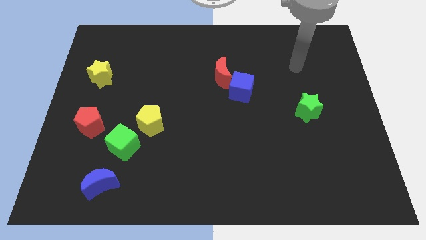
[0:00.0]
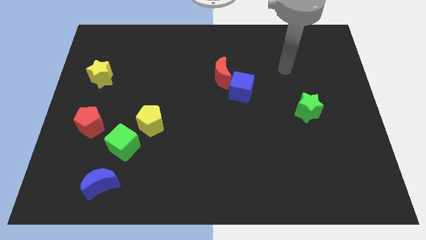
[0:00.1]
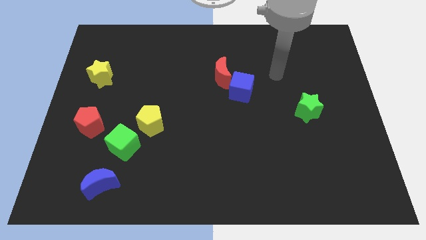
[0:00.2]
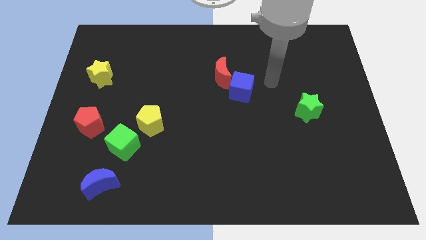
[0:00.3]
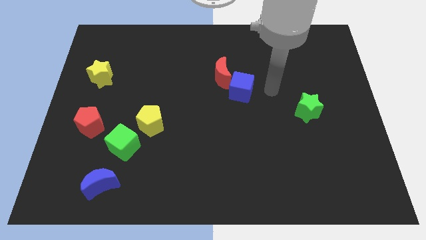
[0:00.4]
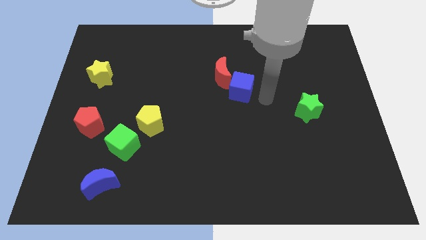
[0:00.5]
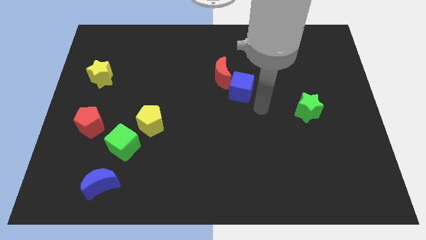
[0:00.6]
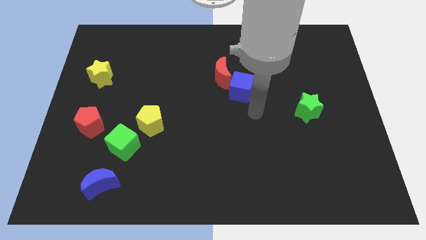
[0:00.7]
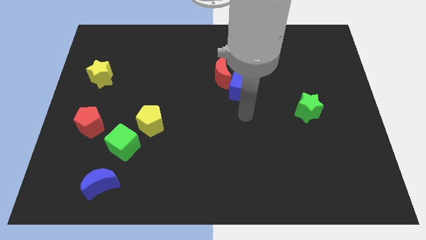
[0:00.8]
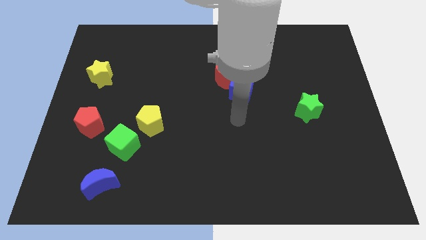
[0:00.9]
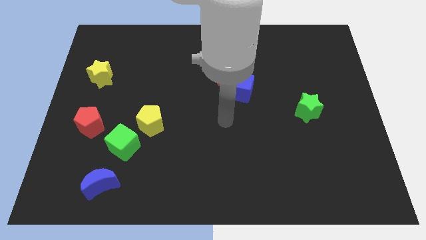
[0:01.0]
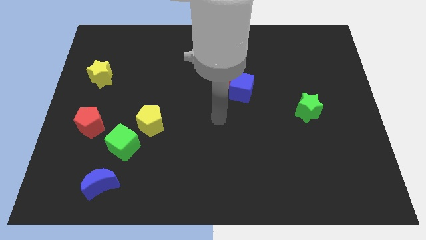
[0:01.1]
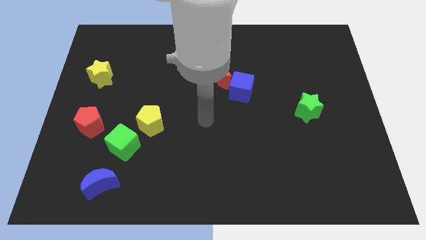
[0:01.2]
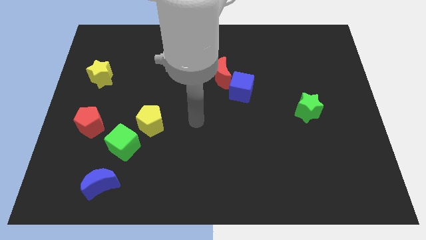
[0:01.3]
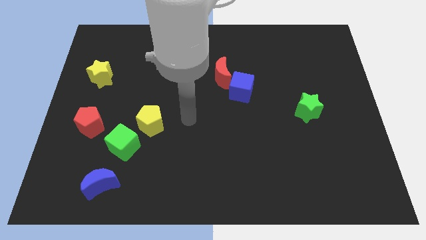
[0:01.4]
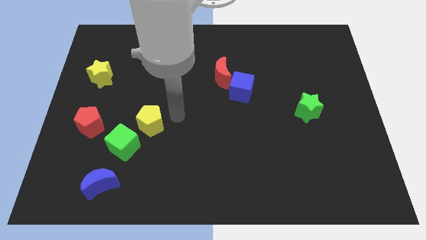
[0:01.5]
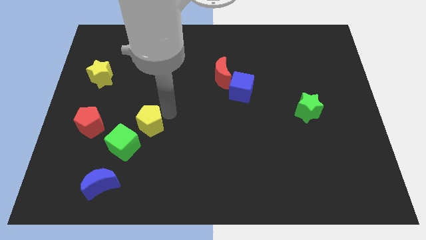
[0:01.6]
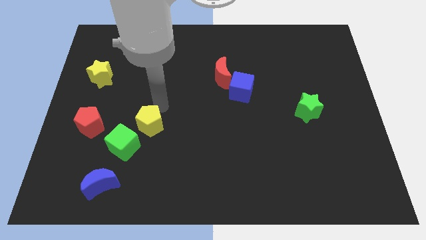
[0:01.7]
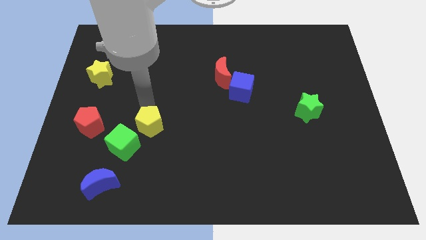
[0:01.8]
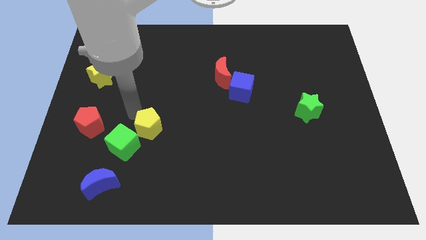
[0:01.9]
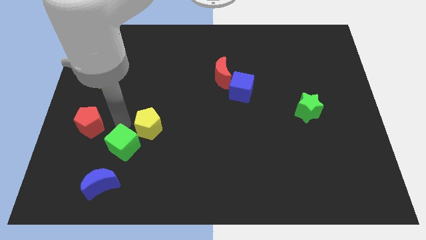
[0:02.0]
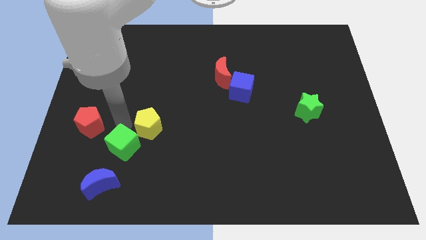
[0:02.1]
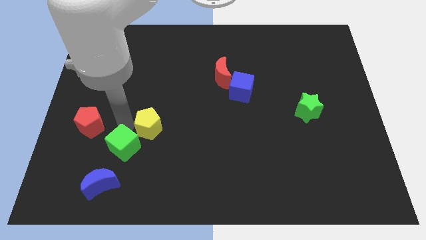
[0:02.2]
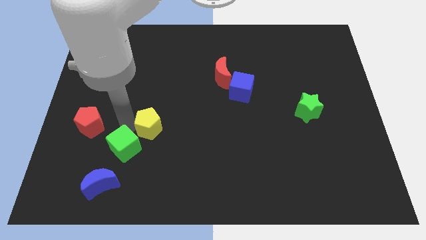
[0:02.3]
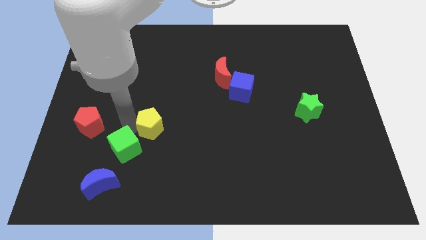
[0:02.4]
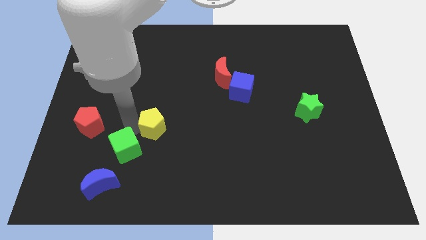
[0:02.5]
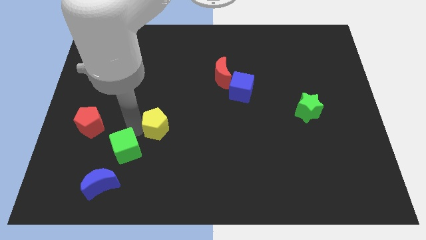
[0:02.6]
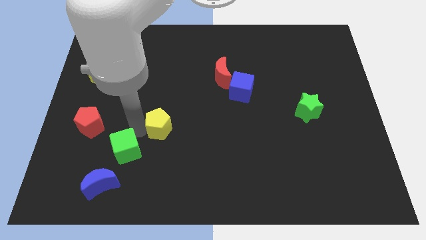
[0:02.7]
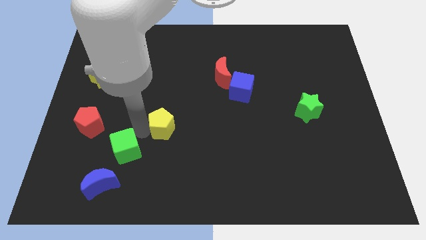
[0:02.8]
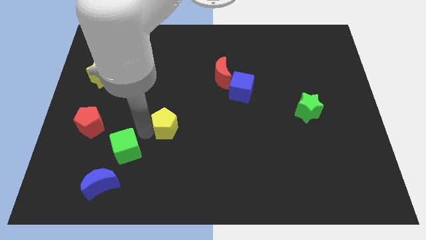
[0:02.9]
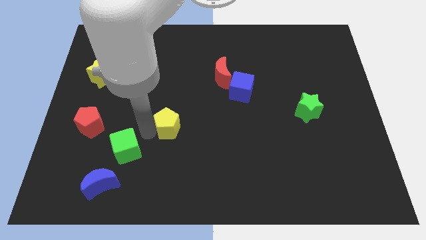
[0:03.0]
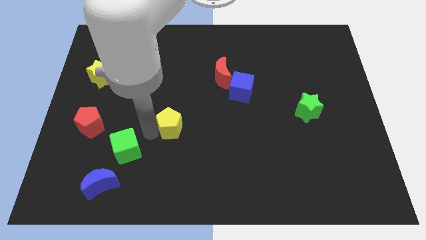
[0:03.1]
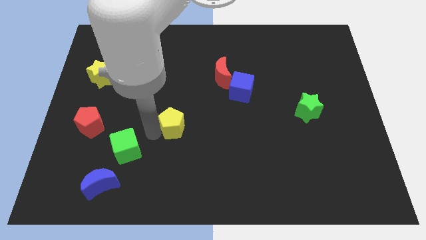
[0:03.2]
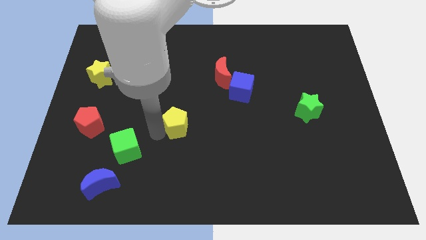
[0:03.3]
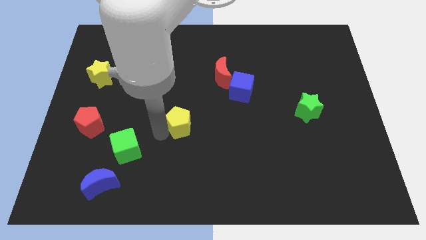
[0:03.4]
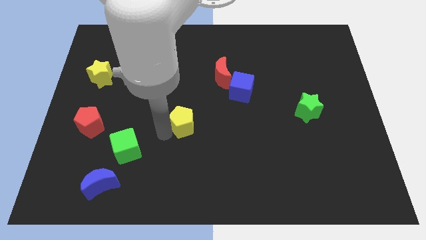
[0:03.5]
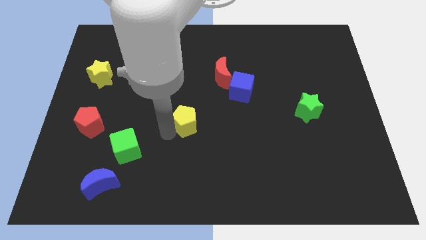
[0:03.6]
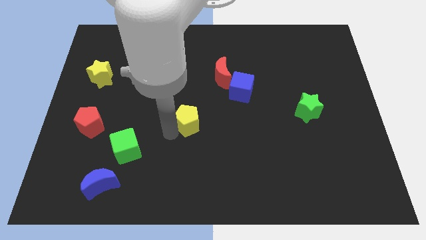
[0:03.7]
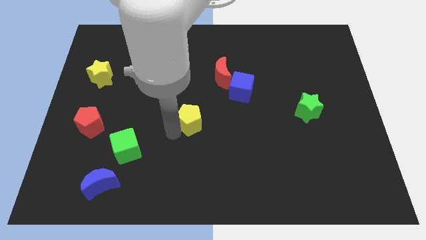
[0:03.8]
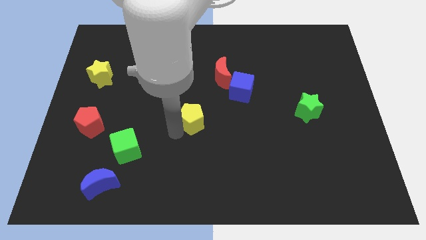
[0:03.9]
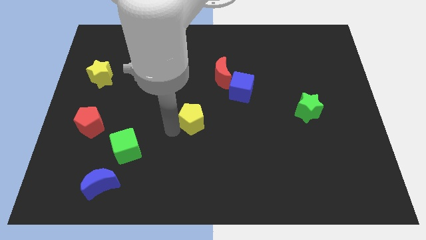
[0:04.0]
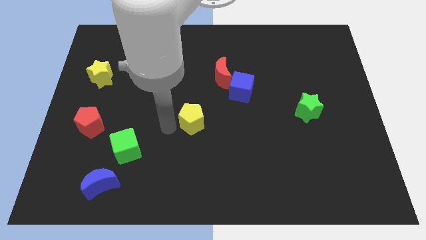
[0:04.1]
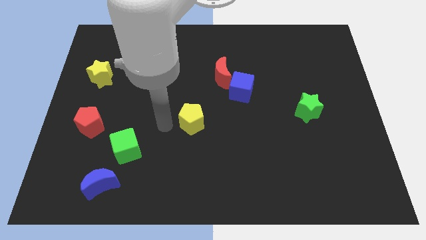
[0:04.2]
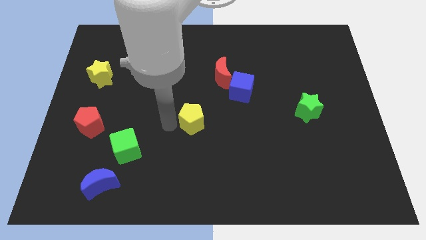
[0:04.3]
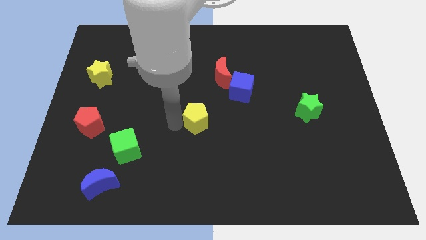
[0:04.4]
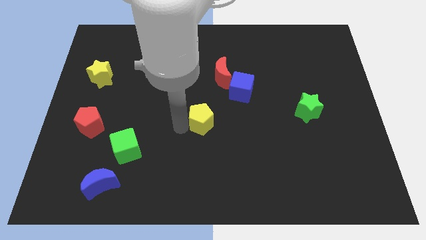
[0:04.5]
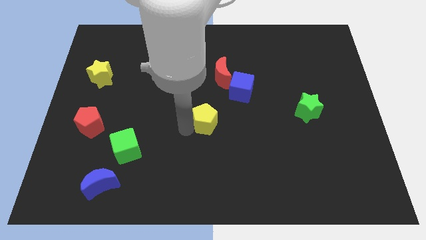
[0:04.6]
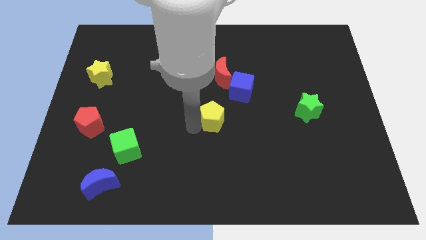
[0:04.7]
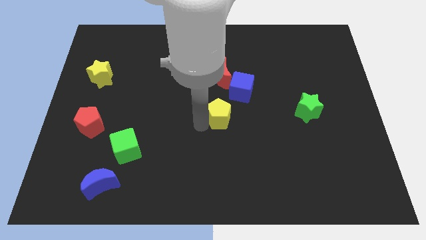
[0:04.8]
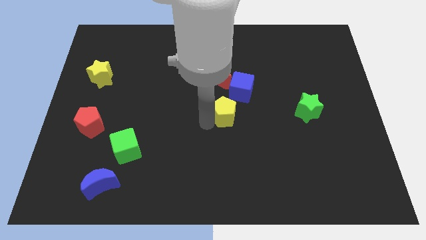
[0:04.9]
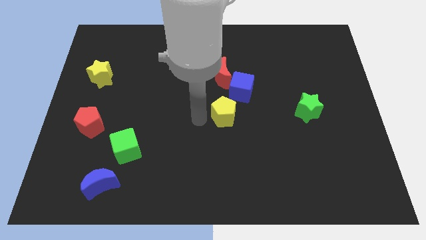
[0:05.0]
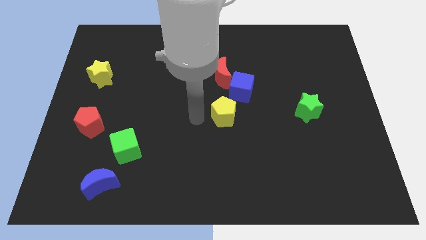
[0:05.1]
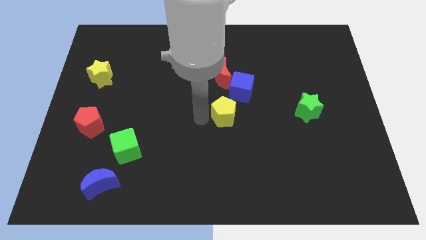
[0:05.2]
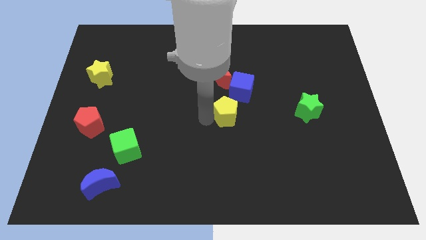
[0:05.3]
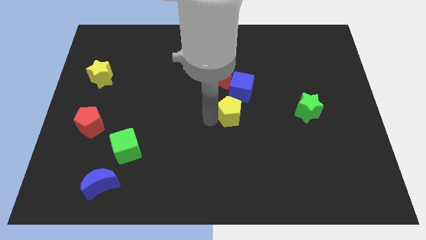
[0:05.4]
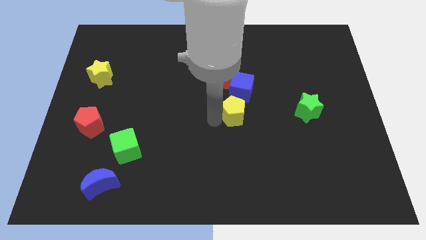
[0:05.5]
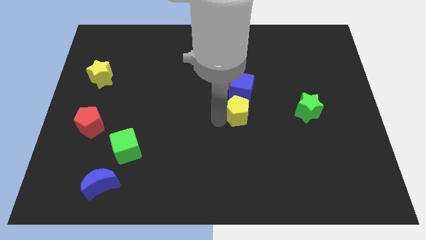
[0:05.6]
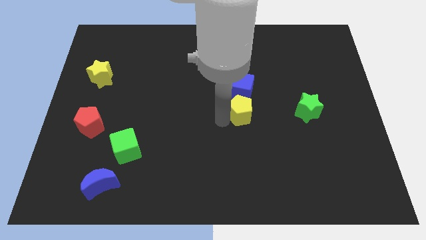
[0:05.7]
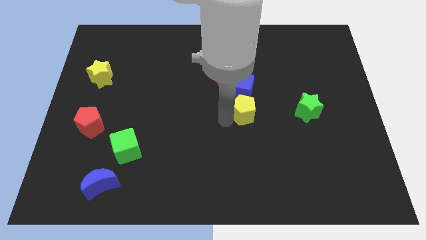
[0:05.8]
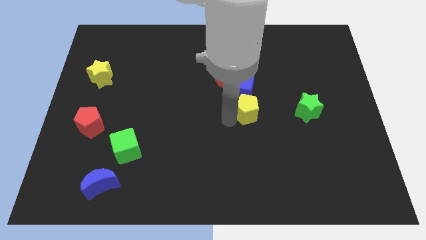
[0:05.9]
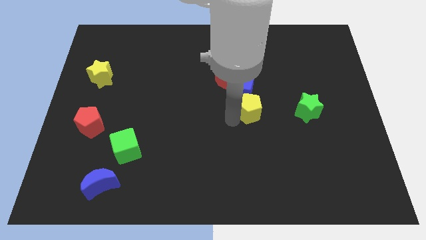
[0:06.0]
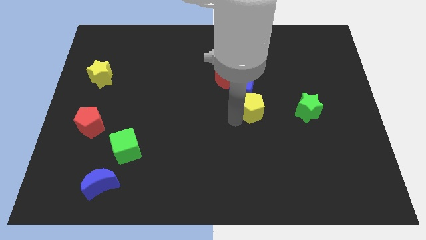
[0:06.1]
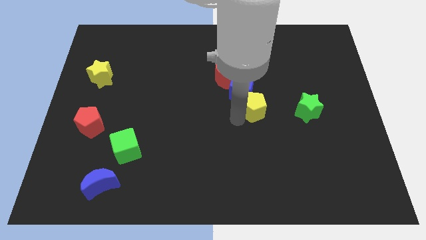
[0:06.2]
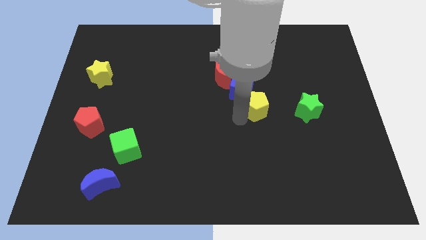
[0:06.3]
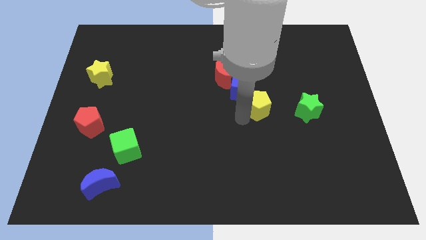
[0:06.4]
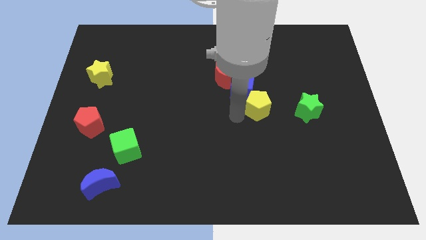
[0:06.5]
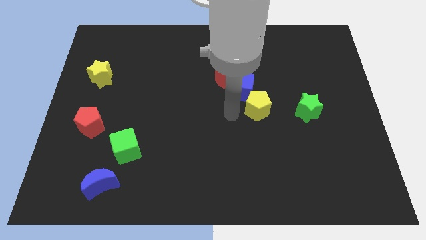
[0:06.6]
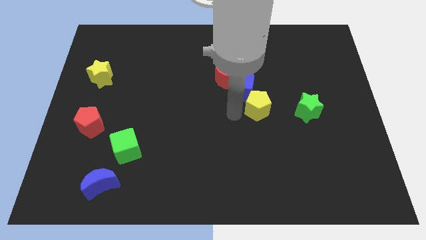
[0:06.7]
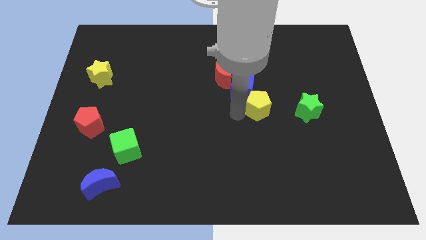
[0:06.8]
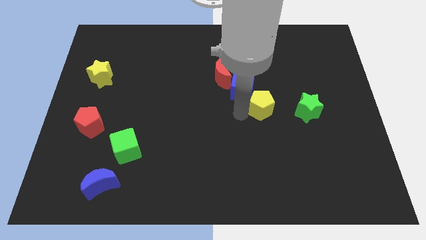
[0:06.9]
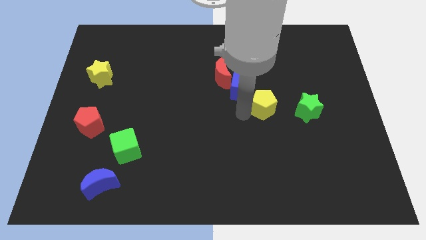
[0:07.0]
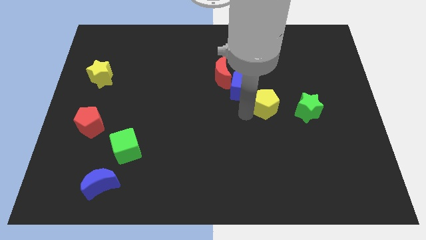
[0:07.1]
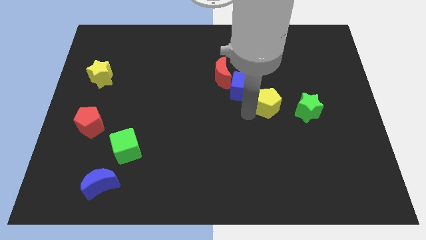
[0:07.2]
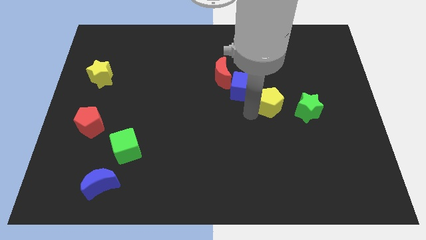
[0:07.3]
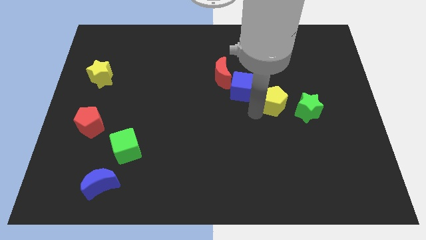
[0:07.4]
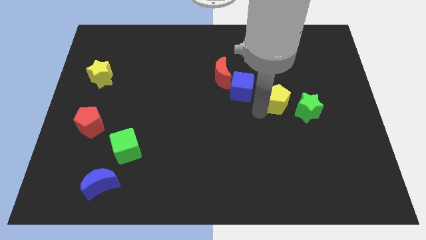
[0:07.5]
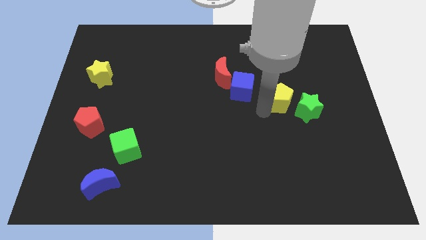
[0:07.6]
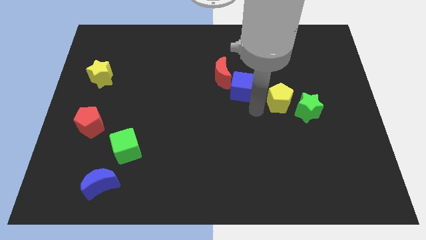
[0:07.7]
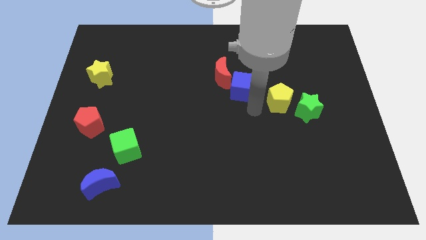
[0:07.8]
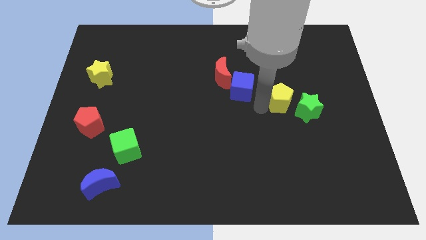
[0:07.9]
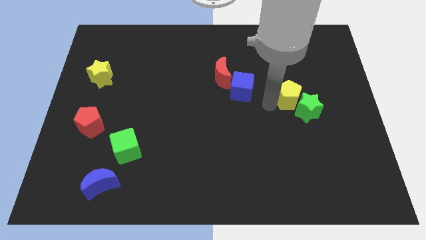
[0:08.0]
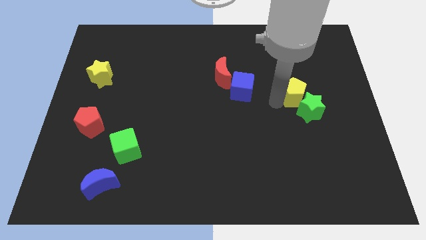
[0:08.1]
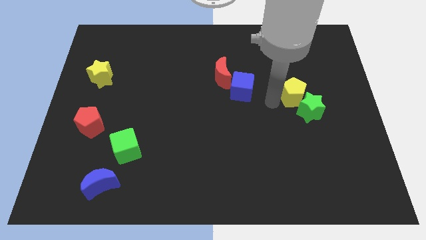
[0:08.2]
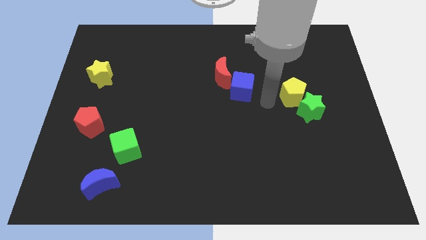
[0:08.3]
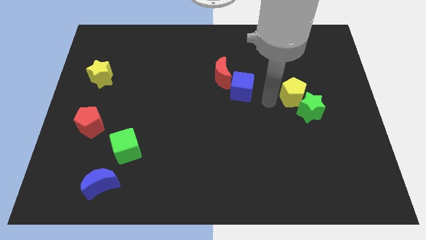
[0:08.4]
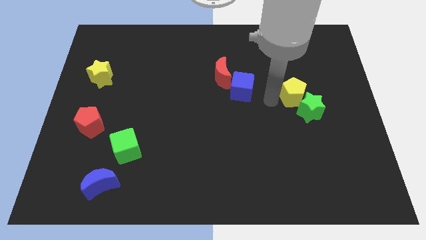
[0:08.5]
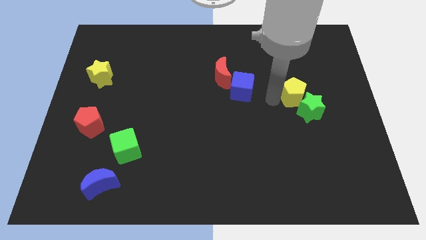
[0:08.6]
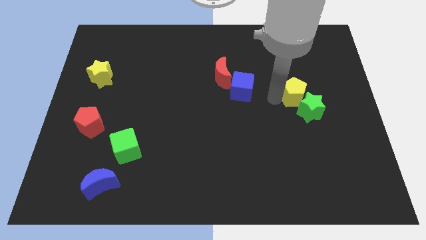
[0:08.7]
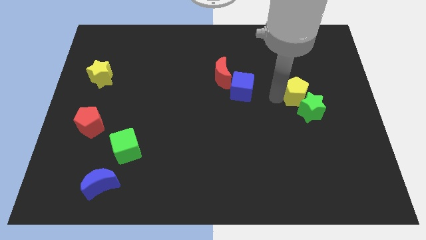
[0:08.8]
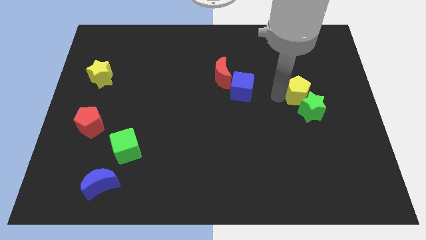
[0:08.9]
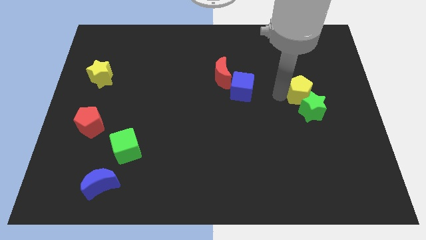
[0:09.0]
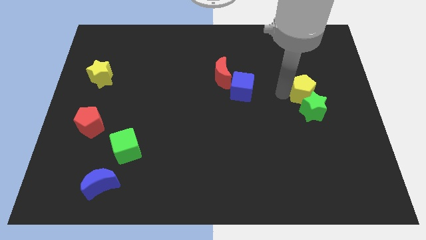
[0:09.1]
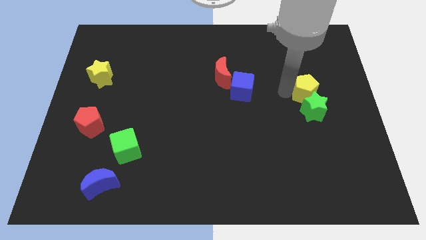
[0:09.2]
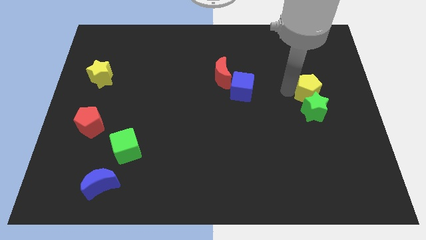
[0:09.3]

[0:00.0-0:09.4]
move the yellow pentagon to the top right side of the green star
